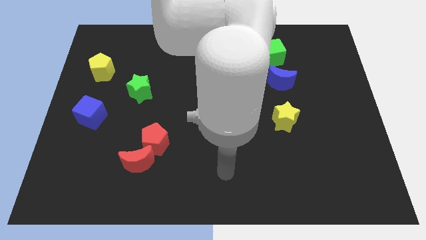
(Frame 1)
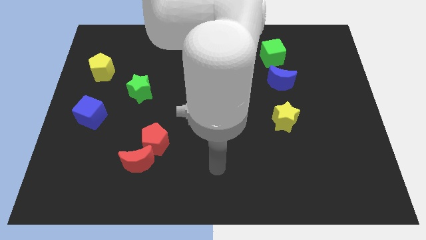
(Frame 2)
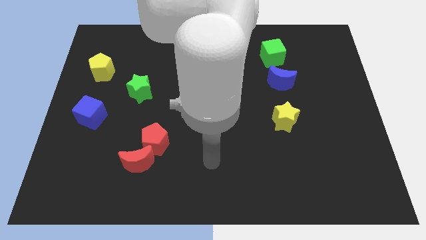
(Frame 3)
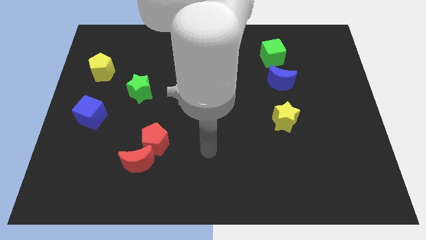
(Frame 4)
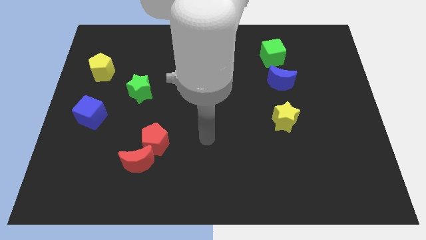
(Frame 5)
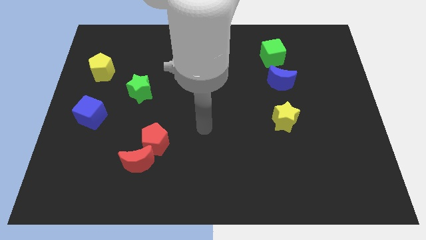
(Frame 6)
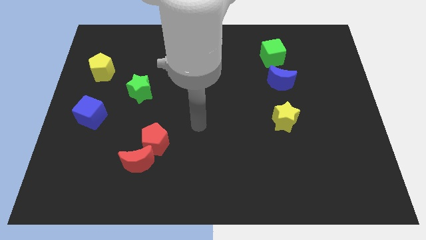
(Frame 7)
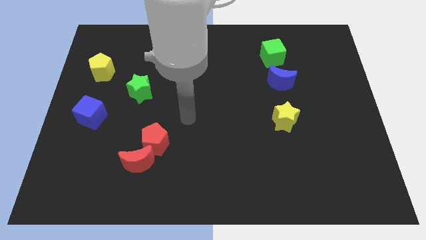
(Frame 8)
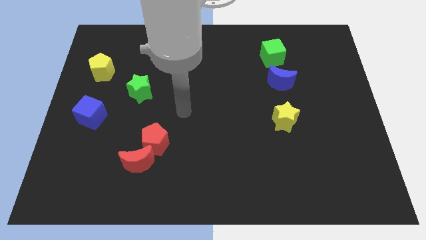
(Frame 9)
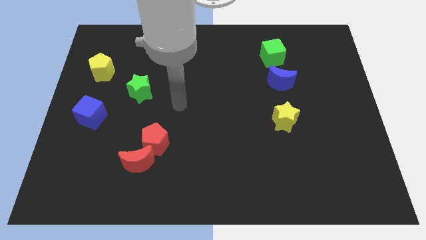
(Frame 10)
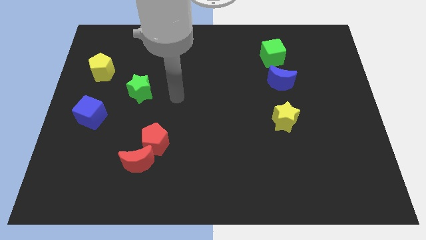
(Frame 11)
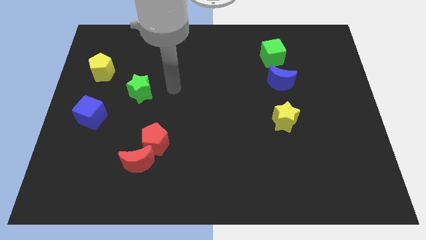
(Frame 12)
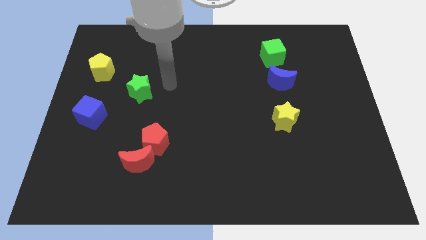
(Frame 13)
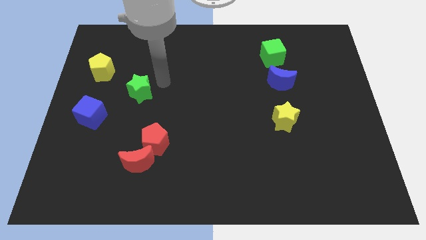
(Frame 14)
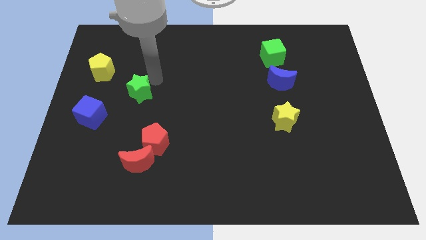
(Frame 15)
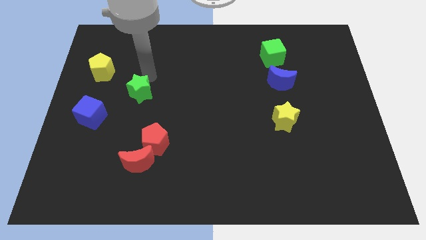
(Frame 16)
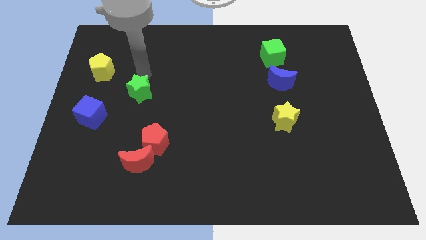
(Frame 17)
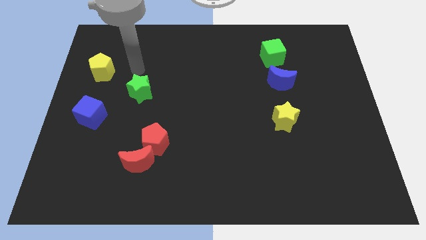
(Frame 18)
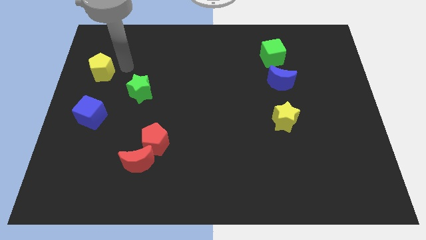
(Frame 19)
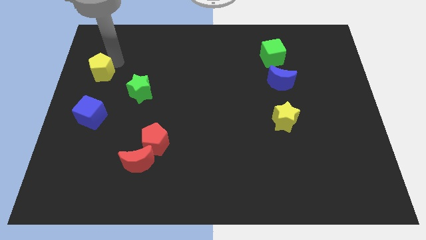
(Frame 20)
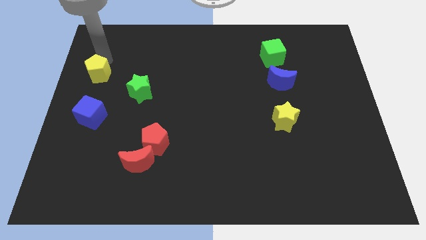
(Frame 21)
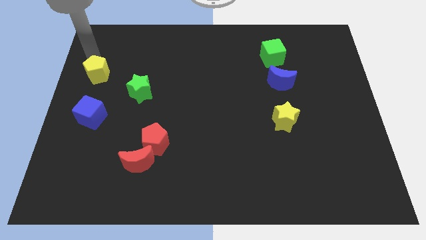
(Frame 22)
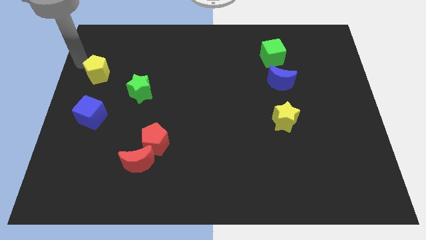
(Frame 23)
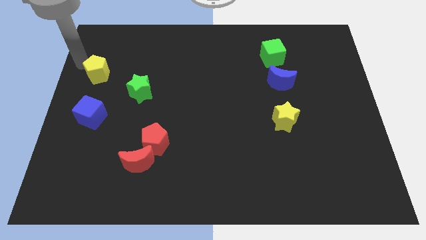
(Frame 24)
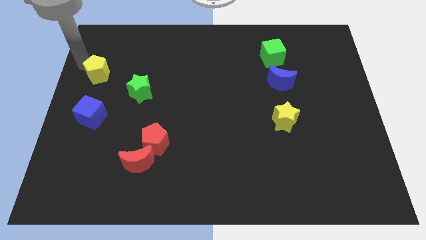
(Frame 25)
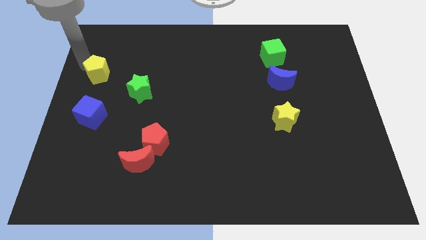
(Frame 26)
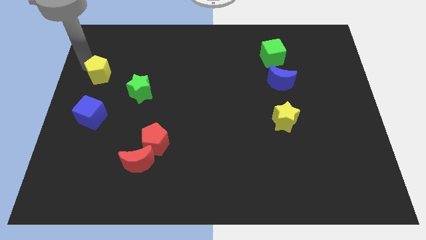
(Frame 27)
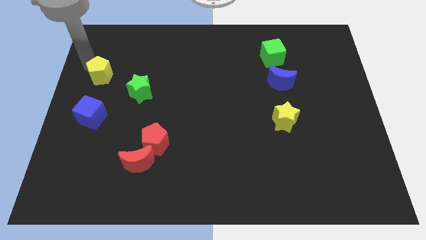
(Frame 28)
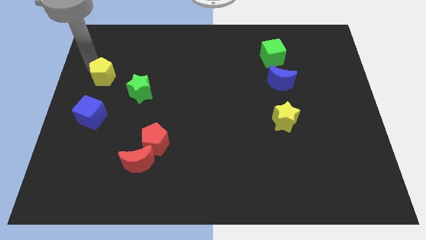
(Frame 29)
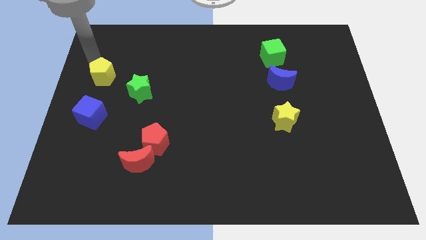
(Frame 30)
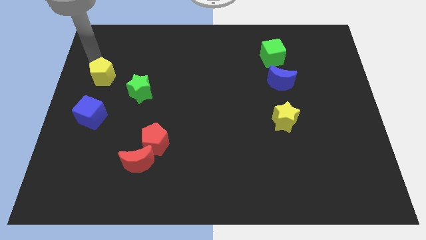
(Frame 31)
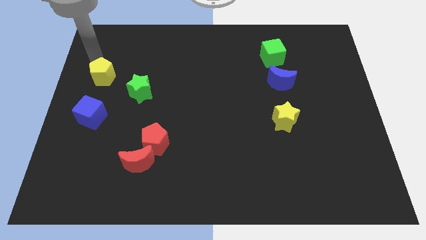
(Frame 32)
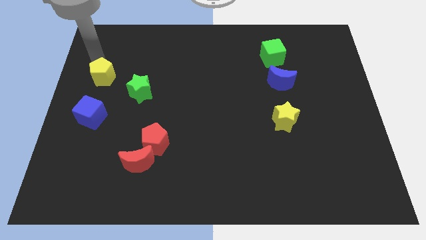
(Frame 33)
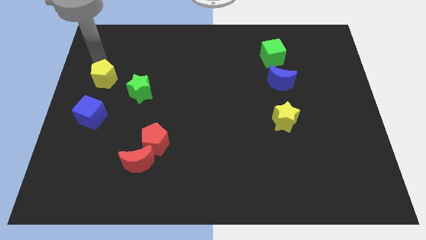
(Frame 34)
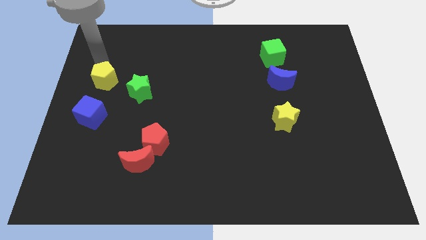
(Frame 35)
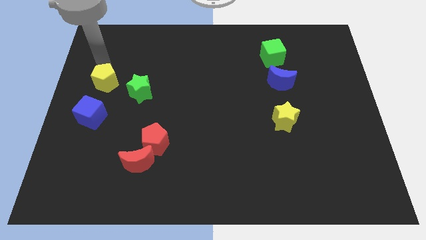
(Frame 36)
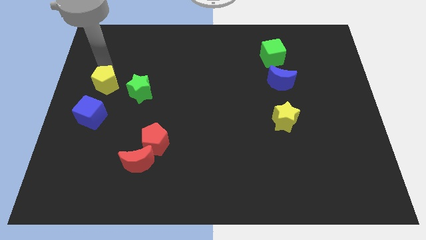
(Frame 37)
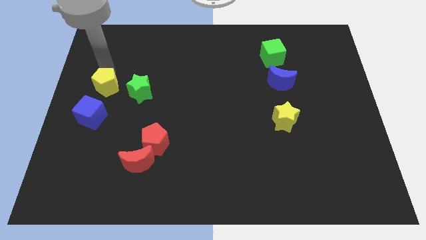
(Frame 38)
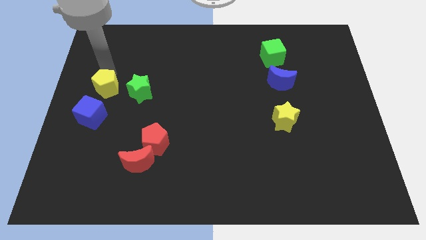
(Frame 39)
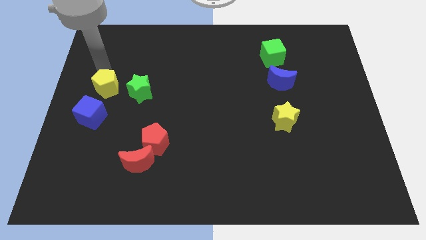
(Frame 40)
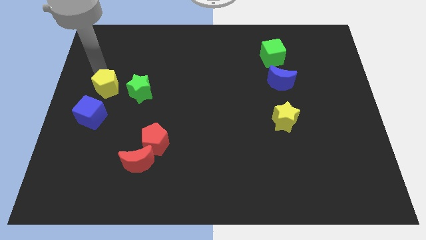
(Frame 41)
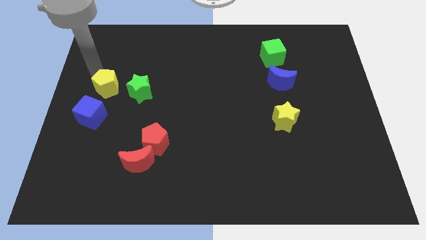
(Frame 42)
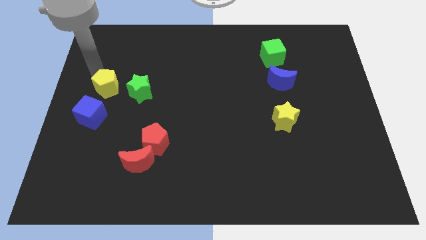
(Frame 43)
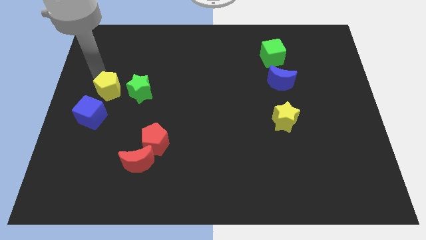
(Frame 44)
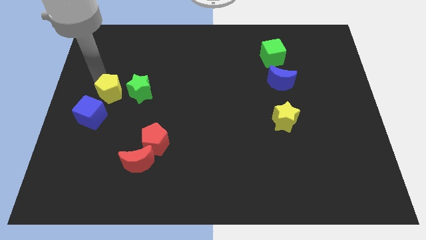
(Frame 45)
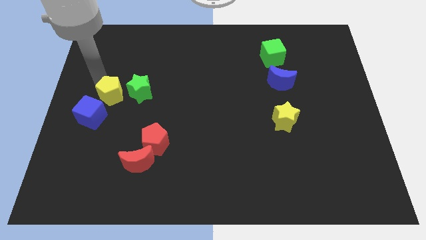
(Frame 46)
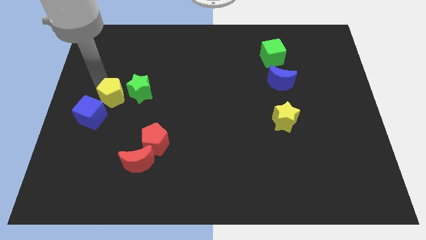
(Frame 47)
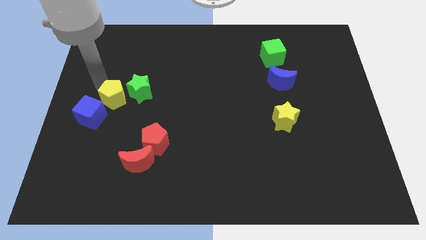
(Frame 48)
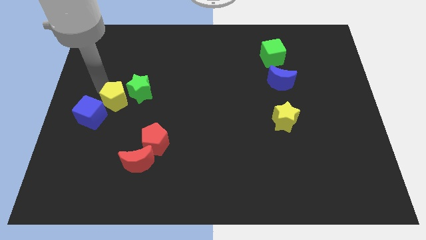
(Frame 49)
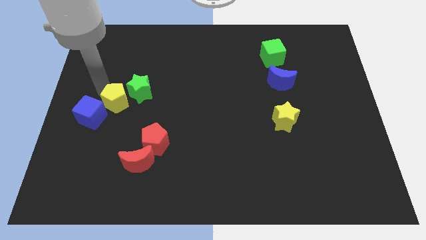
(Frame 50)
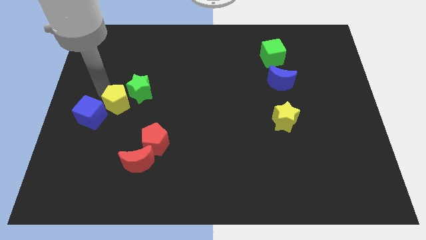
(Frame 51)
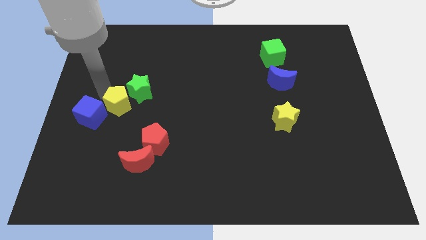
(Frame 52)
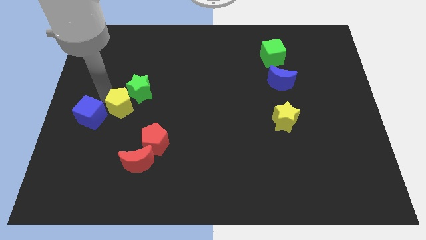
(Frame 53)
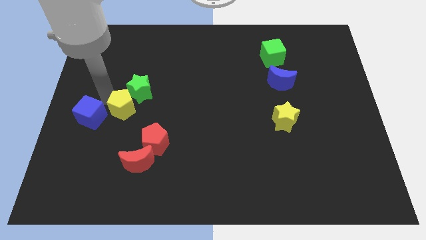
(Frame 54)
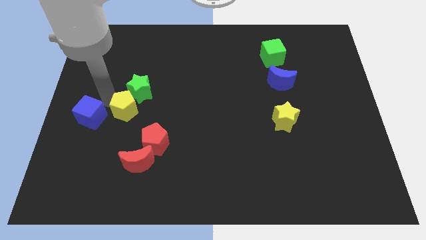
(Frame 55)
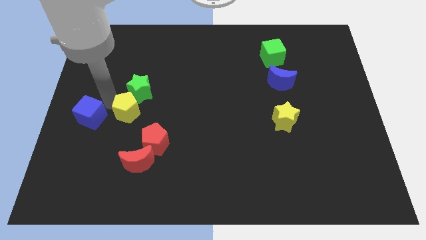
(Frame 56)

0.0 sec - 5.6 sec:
put the yellow pentagon above the red moon
